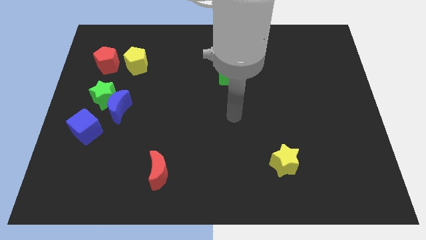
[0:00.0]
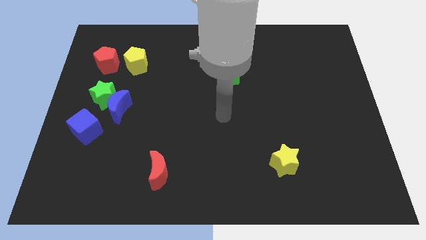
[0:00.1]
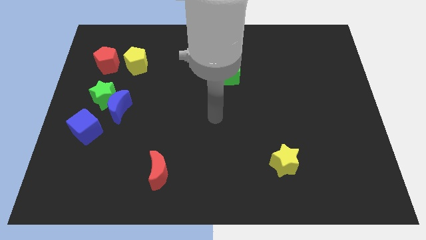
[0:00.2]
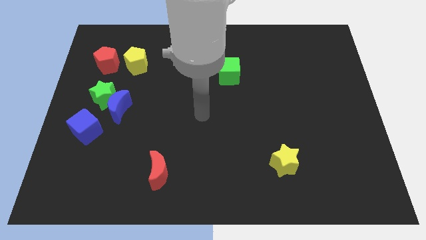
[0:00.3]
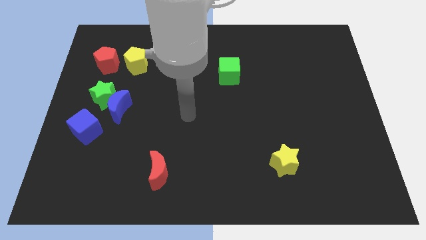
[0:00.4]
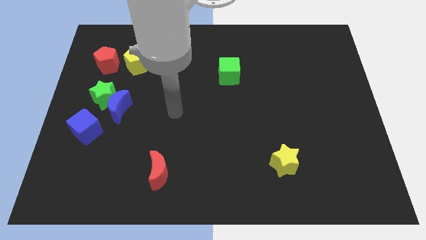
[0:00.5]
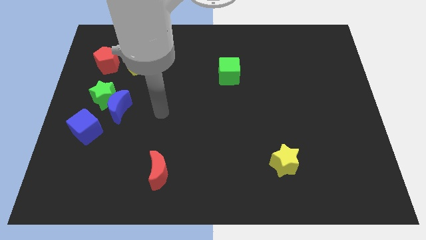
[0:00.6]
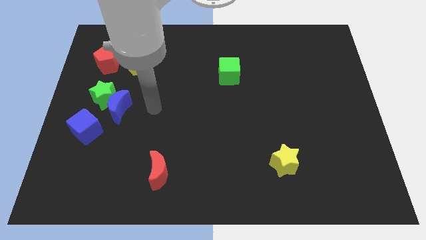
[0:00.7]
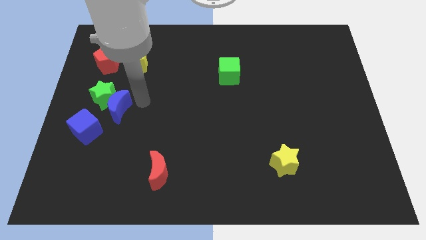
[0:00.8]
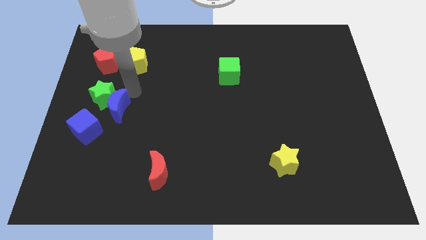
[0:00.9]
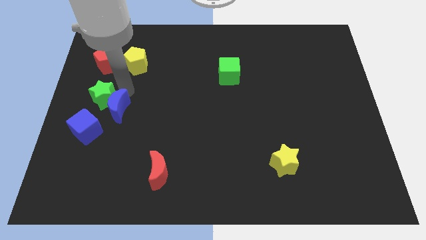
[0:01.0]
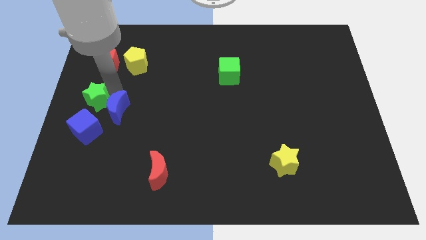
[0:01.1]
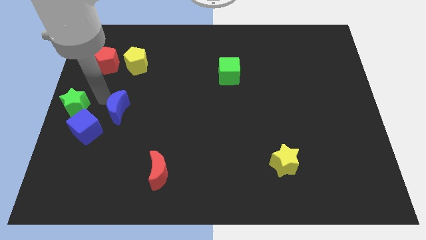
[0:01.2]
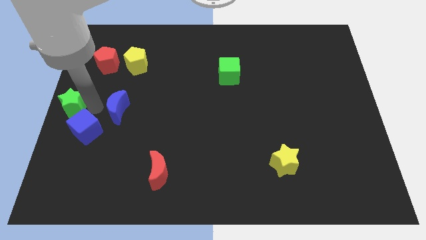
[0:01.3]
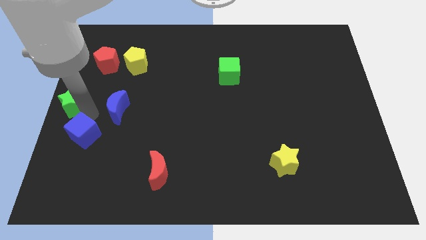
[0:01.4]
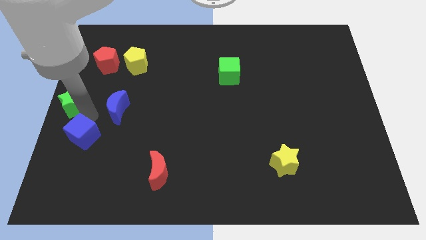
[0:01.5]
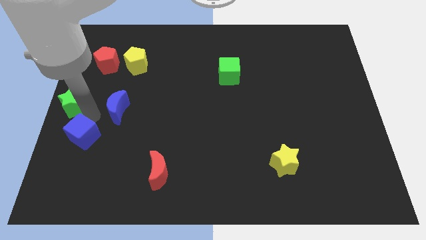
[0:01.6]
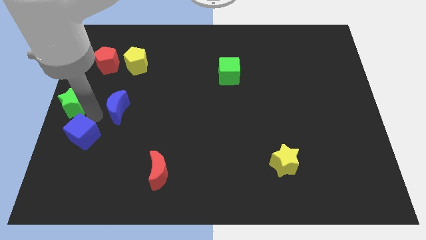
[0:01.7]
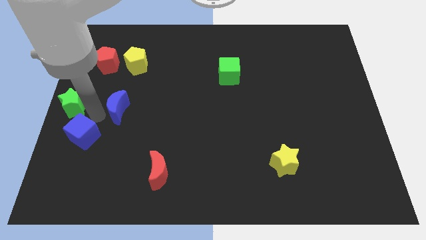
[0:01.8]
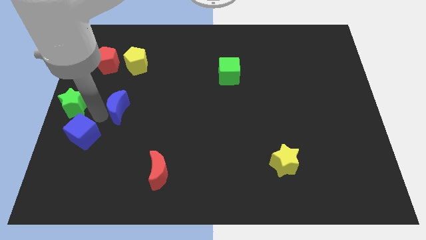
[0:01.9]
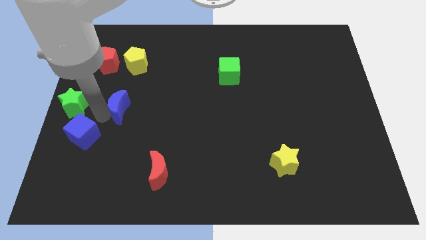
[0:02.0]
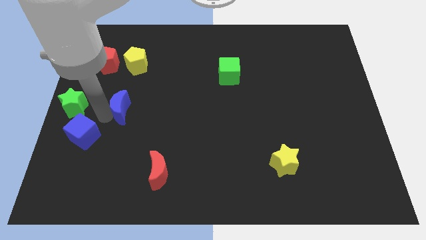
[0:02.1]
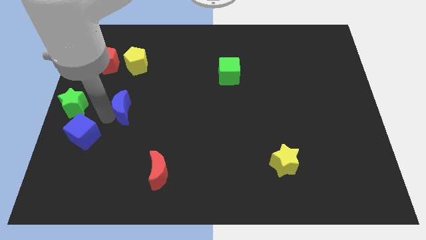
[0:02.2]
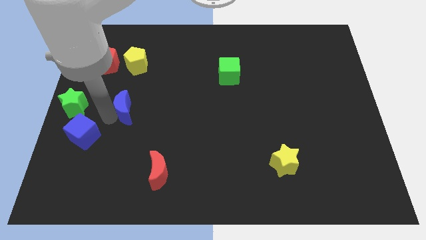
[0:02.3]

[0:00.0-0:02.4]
pull the blue moon apart from the green star and blue cube

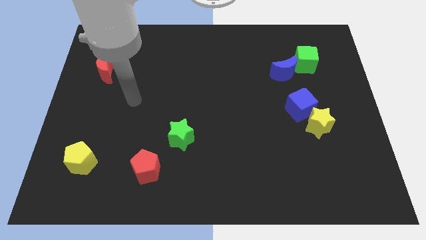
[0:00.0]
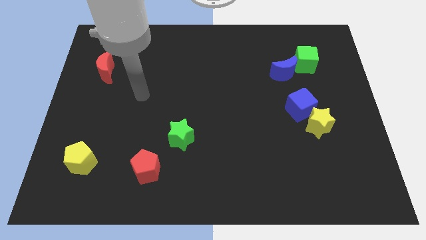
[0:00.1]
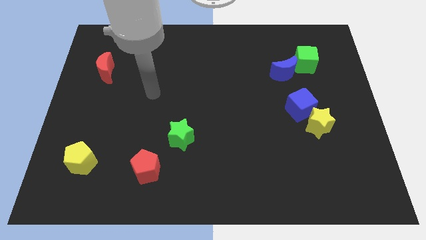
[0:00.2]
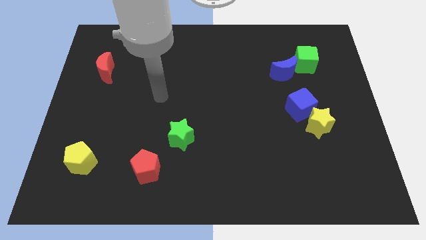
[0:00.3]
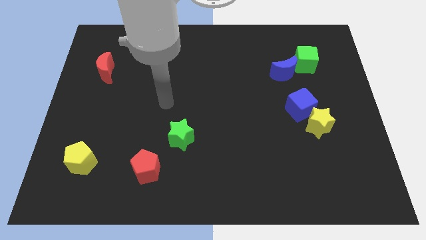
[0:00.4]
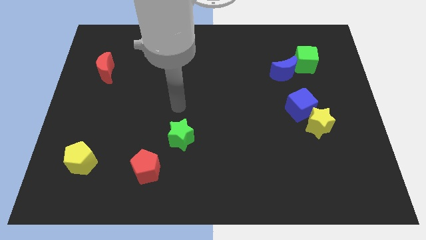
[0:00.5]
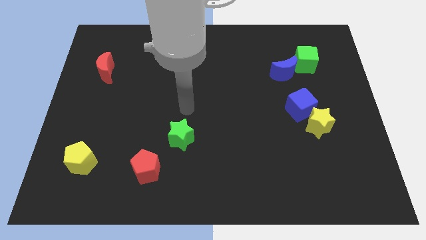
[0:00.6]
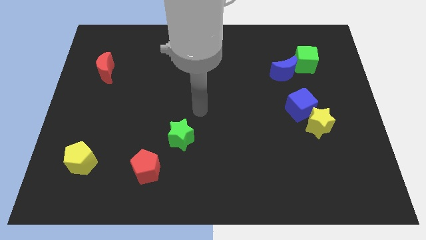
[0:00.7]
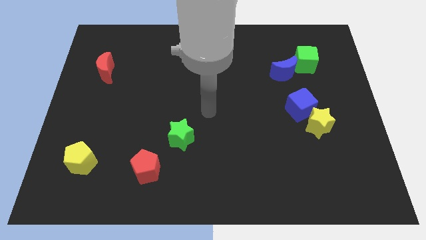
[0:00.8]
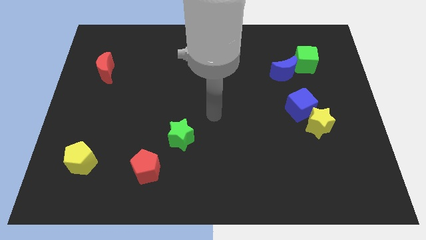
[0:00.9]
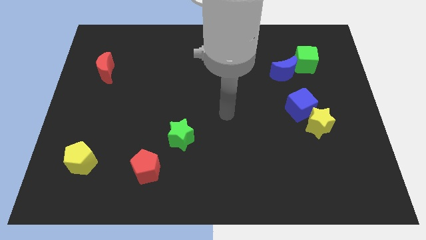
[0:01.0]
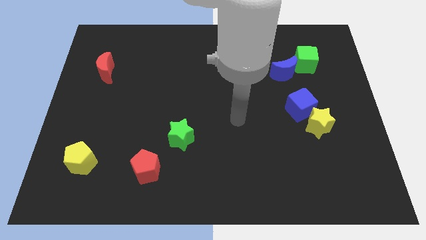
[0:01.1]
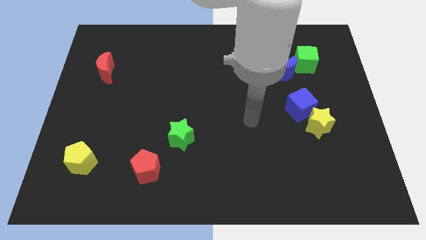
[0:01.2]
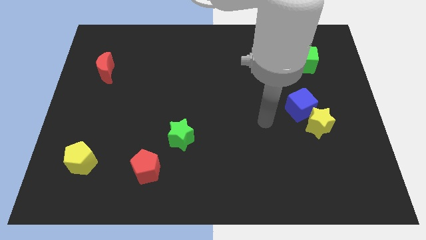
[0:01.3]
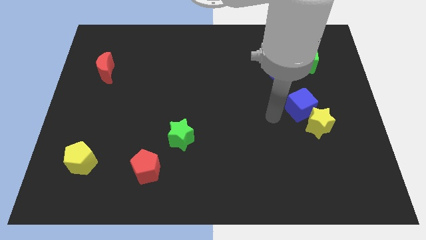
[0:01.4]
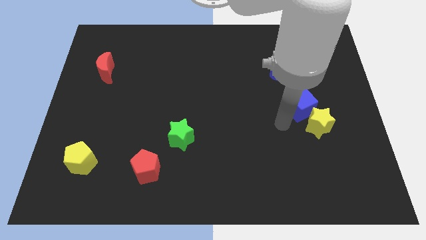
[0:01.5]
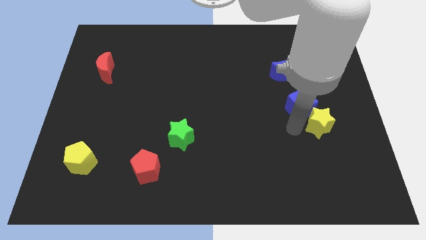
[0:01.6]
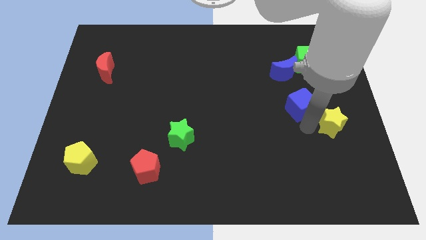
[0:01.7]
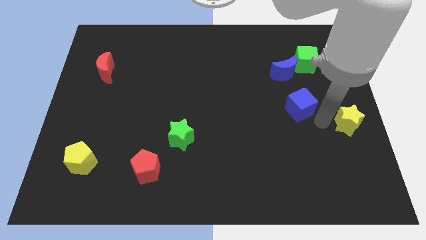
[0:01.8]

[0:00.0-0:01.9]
move the blue cube away from the yellow star

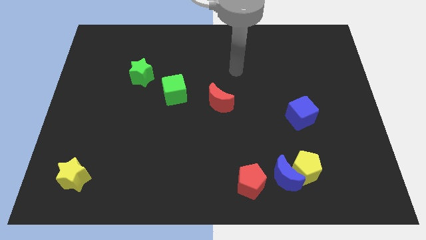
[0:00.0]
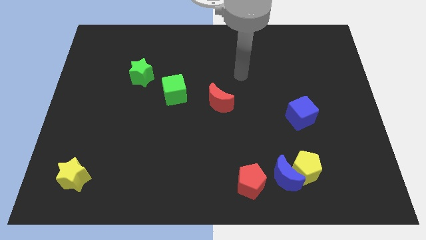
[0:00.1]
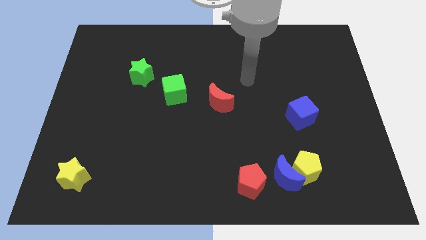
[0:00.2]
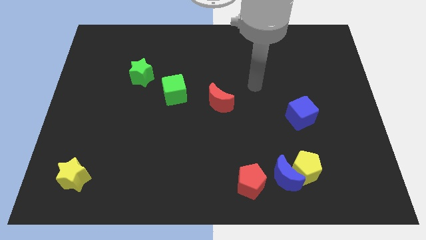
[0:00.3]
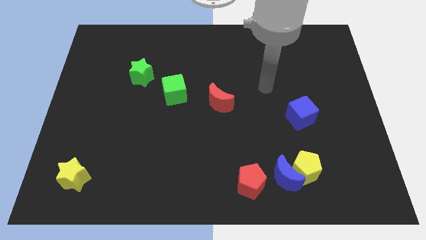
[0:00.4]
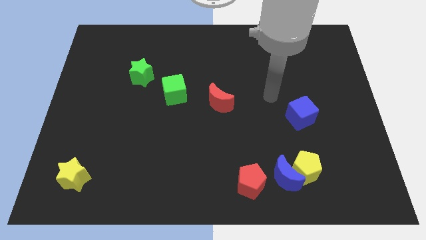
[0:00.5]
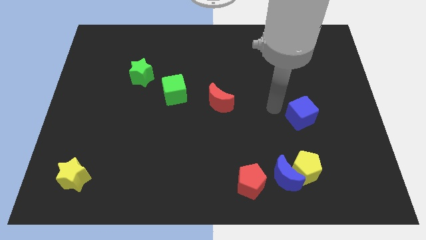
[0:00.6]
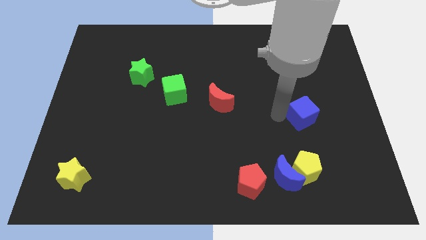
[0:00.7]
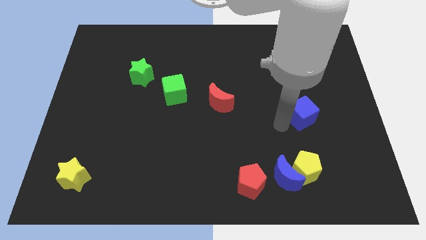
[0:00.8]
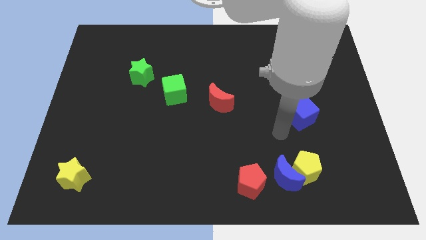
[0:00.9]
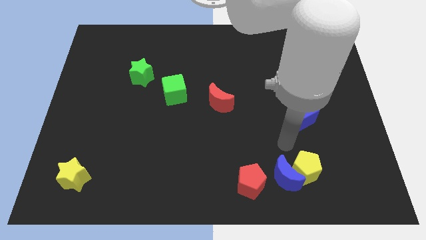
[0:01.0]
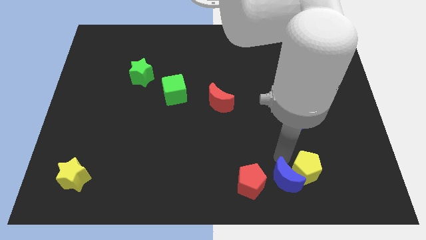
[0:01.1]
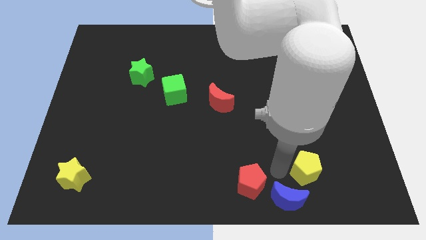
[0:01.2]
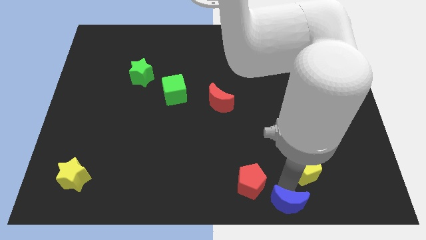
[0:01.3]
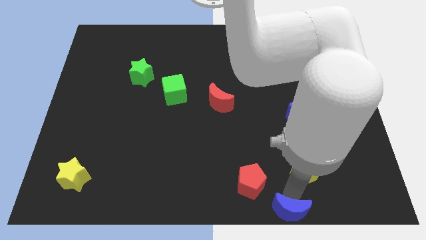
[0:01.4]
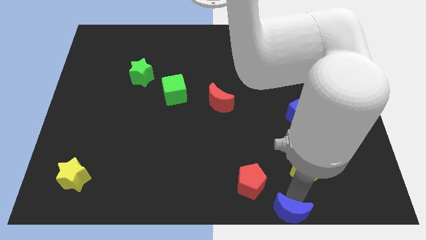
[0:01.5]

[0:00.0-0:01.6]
pull the yellow pentagon apart from the blue moon

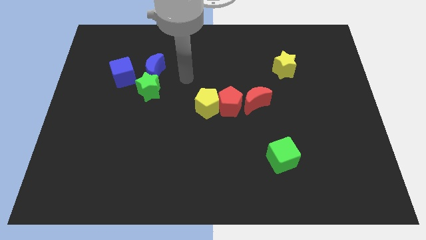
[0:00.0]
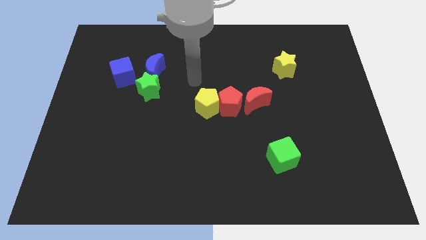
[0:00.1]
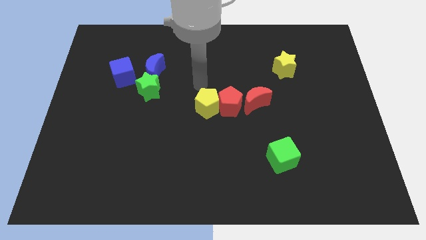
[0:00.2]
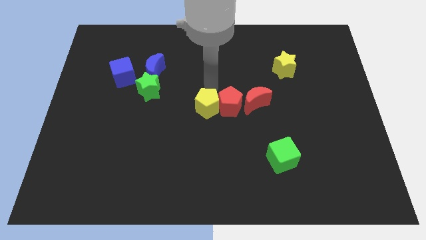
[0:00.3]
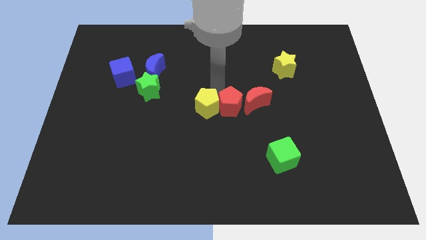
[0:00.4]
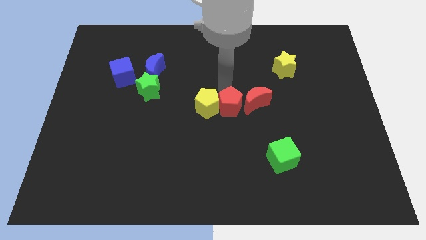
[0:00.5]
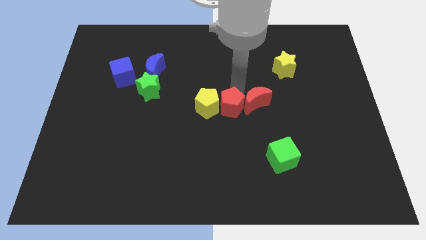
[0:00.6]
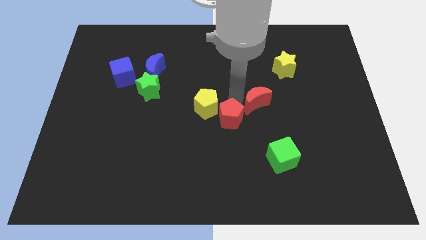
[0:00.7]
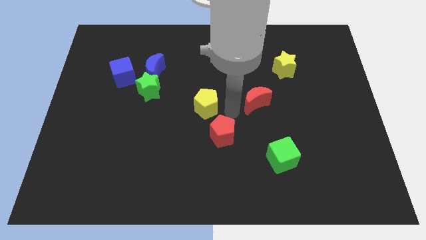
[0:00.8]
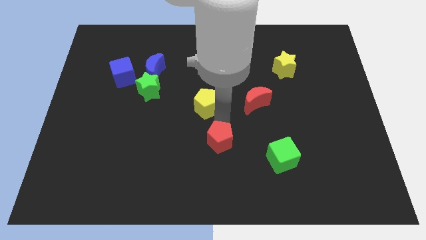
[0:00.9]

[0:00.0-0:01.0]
move the yellow pentagon away from the red pentagon

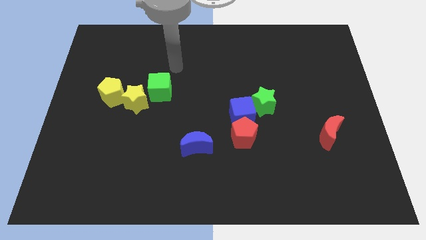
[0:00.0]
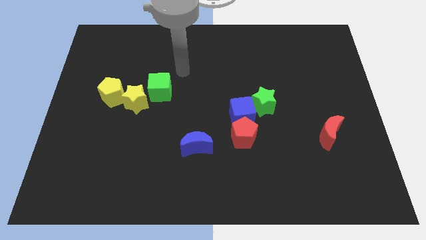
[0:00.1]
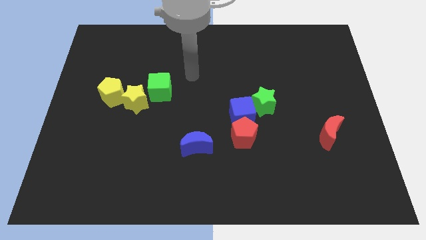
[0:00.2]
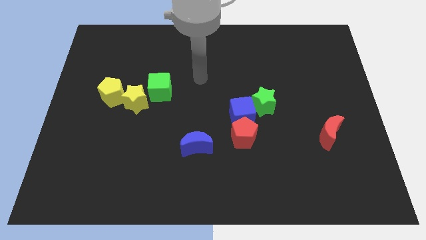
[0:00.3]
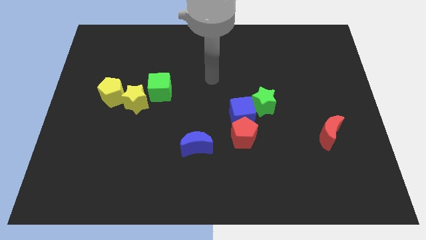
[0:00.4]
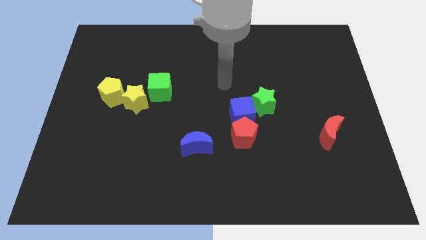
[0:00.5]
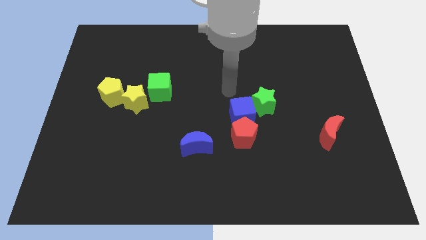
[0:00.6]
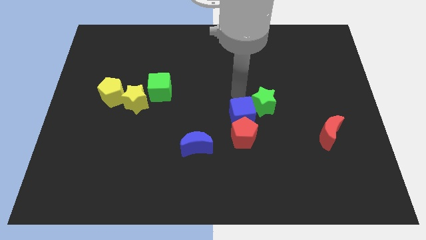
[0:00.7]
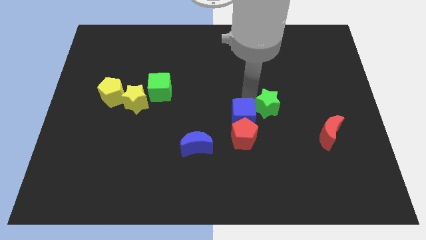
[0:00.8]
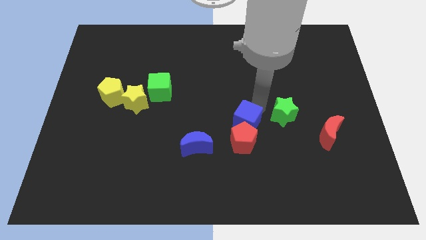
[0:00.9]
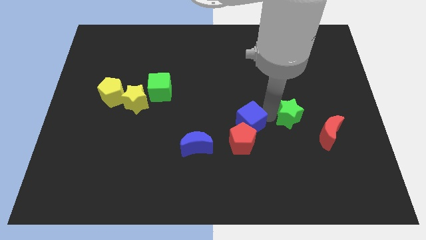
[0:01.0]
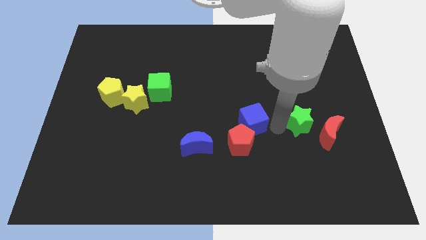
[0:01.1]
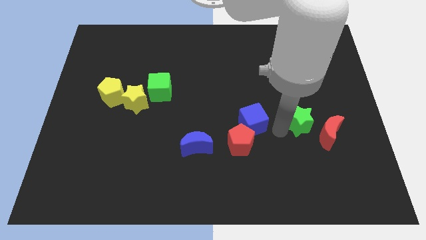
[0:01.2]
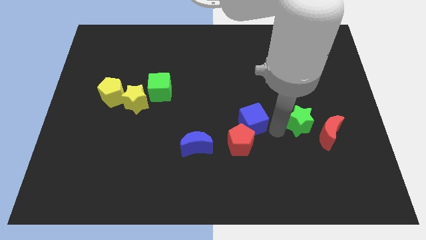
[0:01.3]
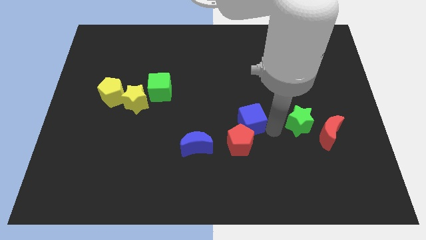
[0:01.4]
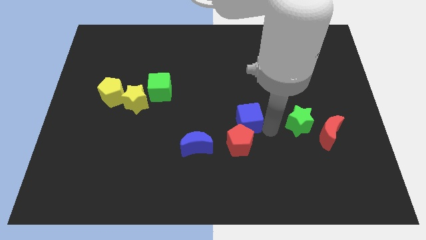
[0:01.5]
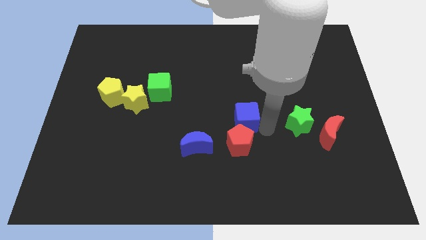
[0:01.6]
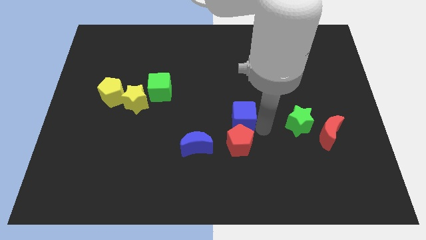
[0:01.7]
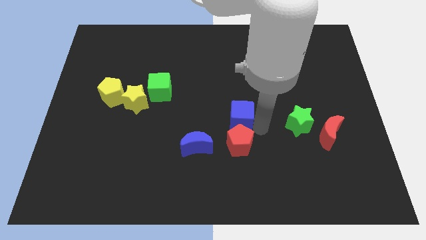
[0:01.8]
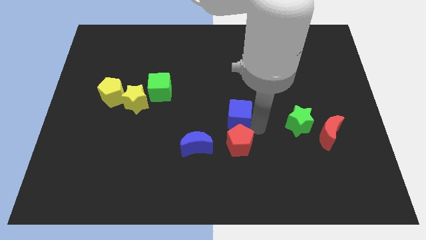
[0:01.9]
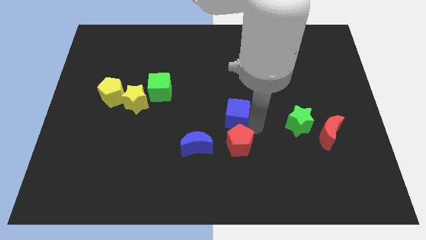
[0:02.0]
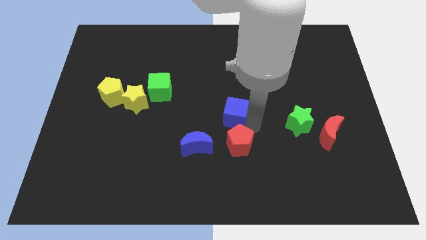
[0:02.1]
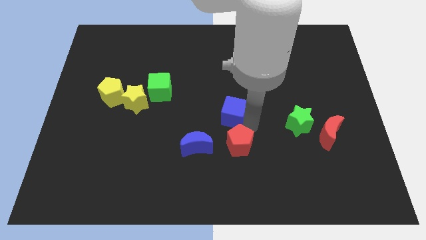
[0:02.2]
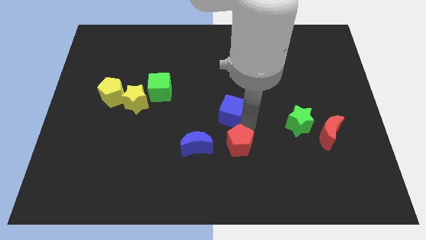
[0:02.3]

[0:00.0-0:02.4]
separate the blue cube from the red pentagon and green star

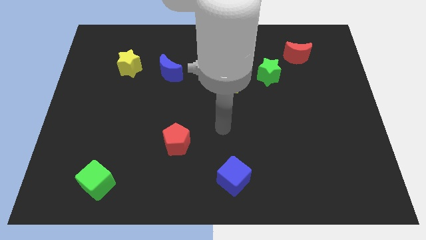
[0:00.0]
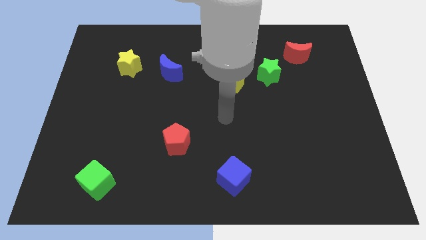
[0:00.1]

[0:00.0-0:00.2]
pull the green star apart from the yellow pentagon
